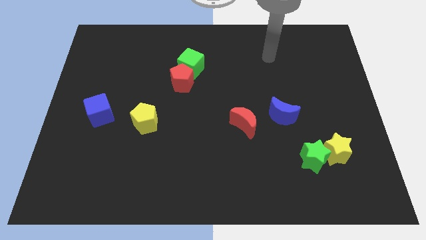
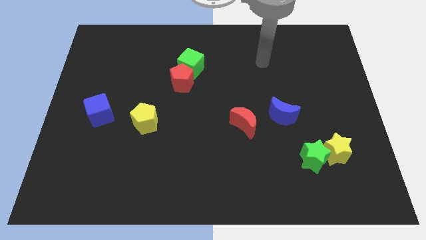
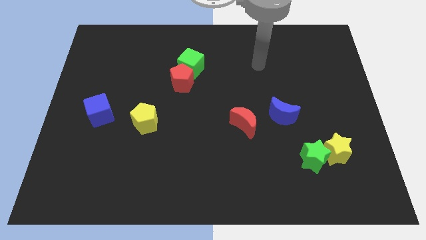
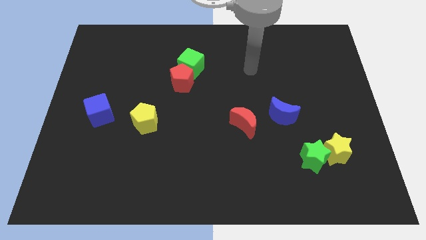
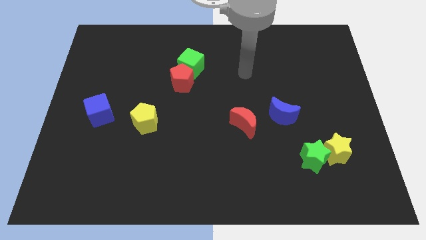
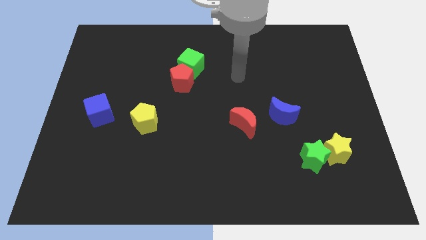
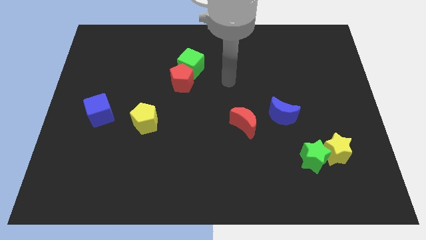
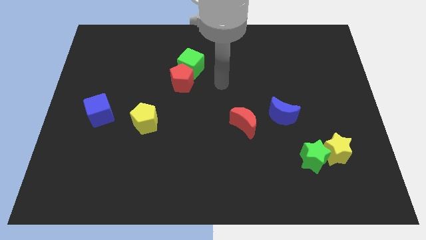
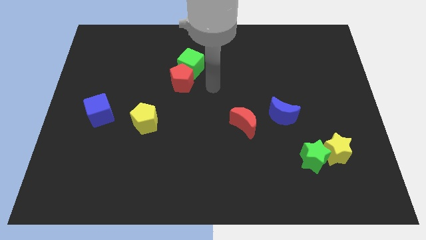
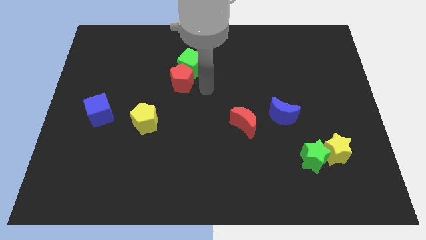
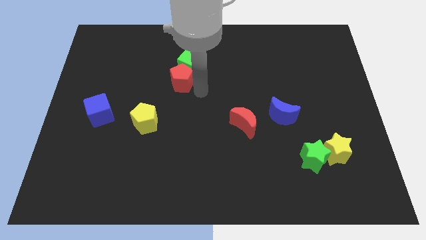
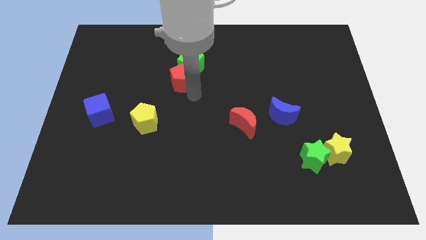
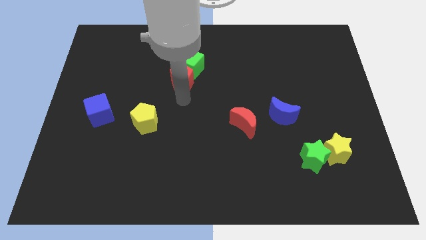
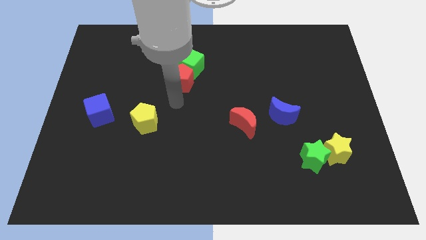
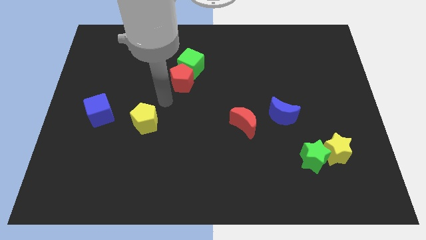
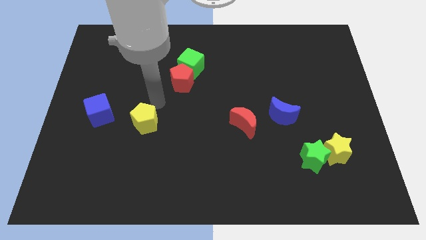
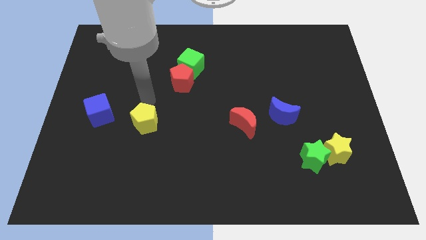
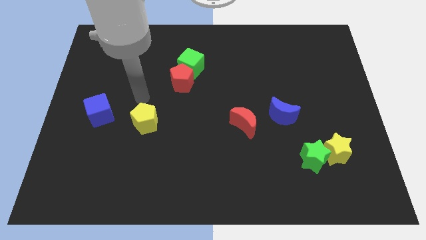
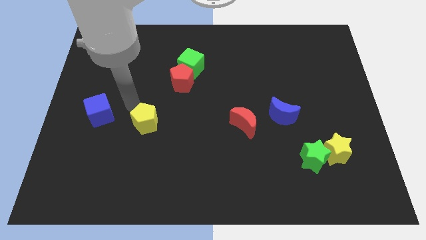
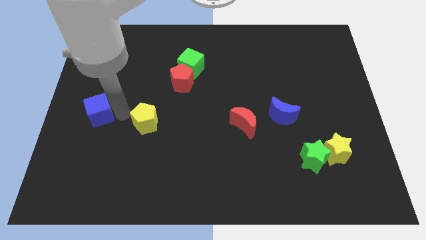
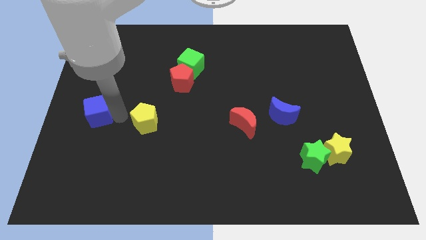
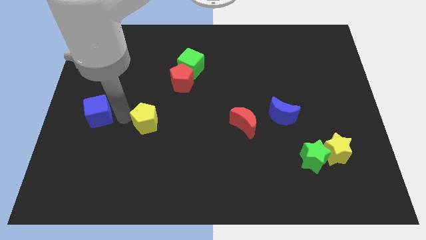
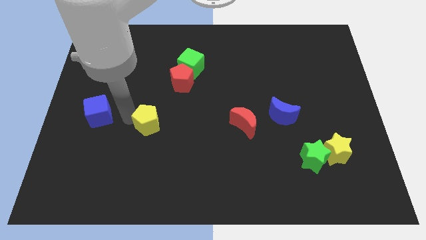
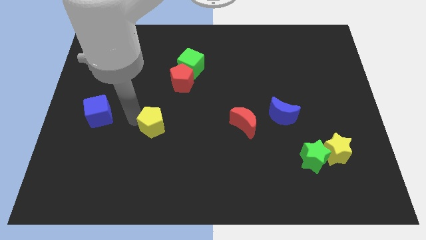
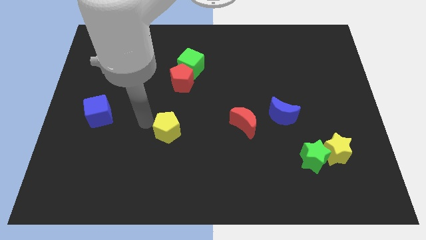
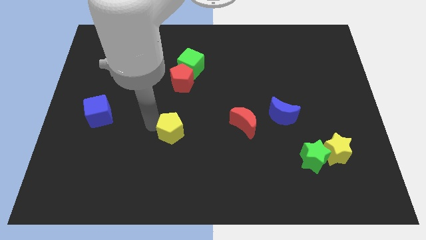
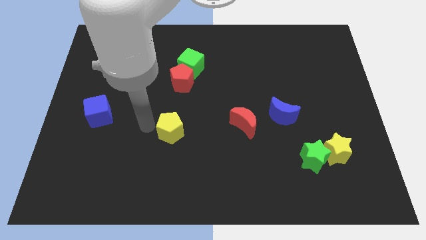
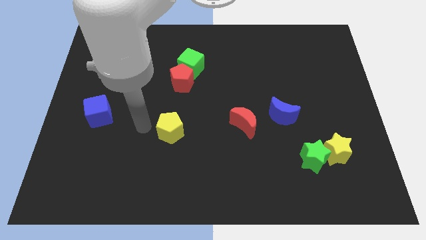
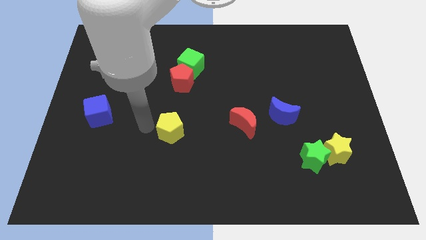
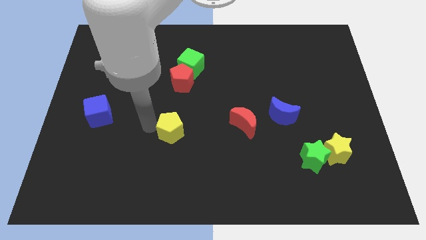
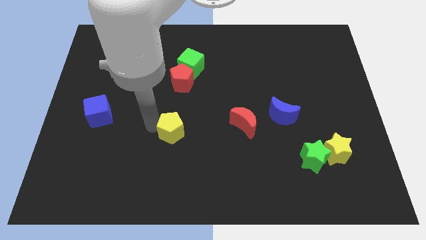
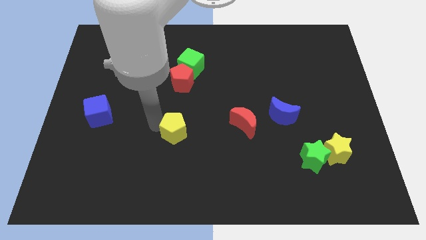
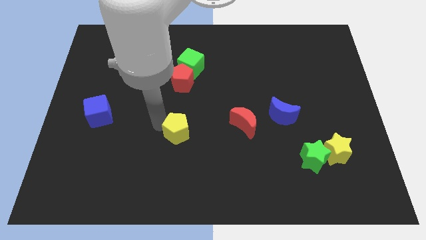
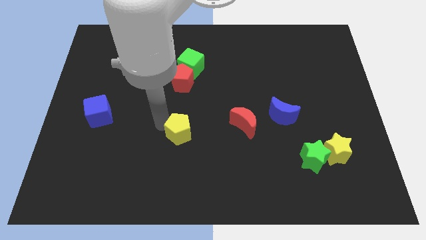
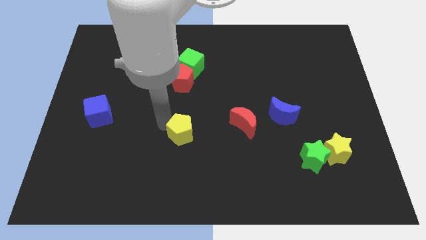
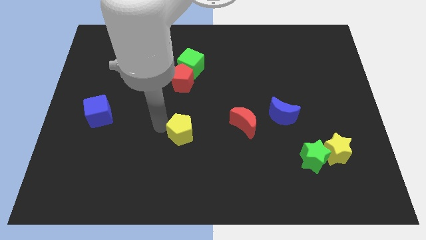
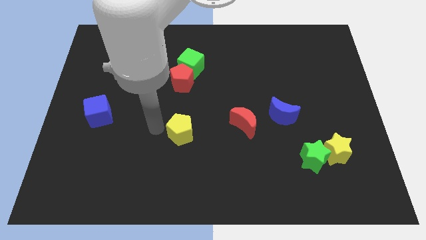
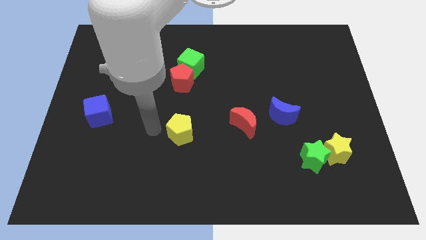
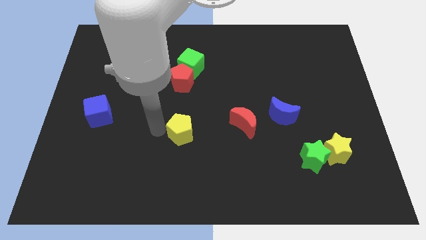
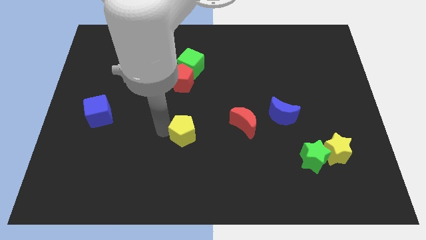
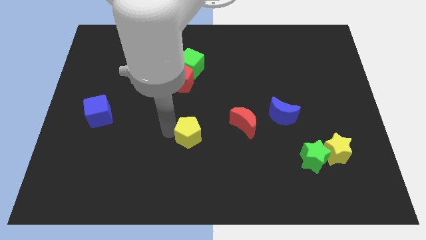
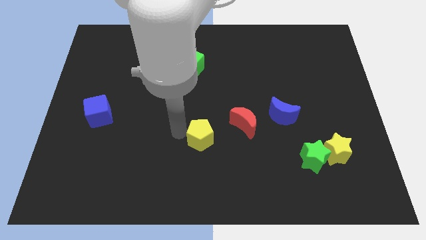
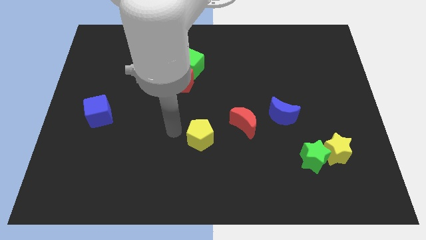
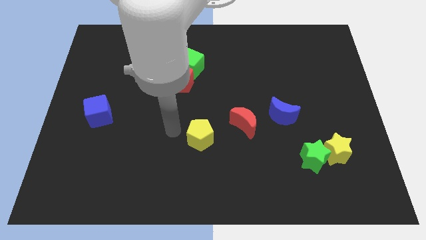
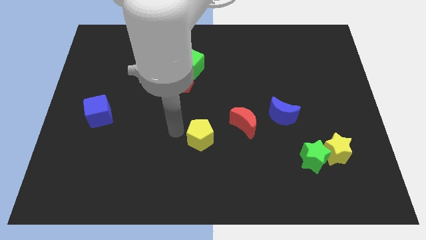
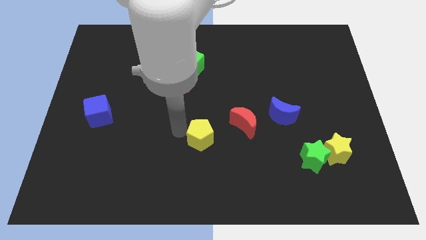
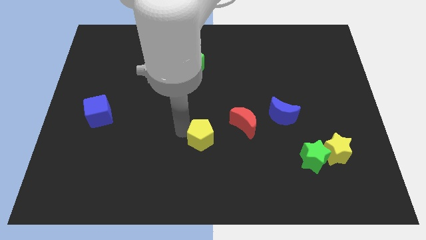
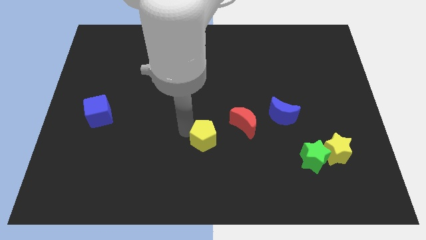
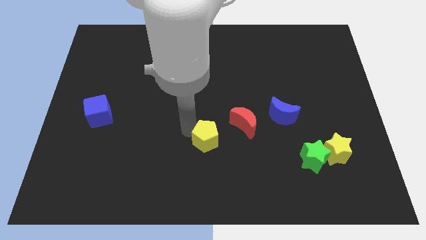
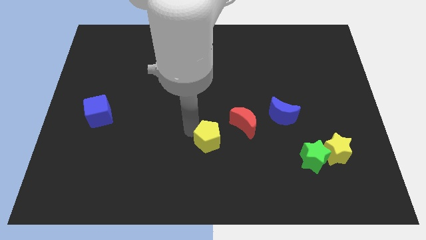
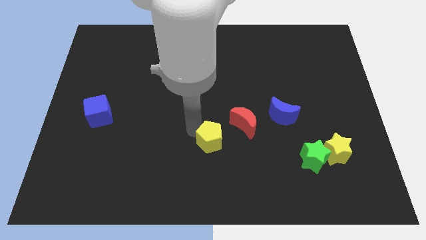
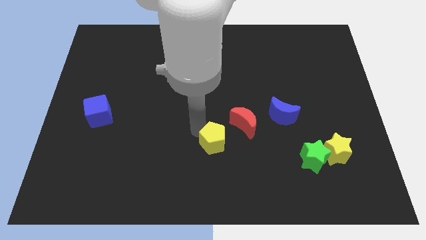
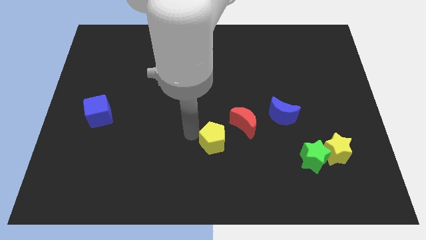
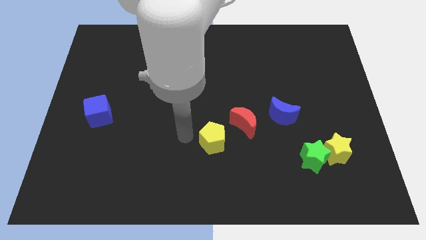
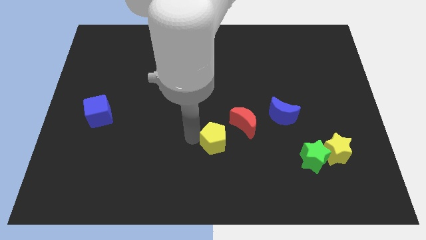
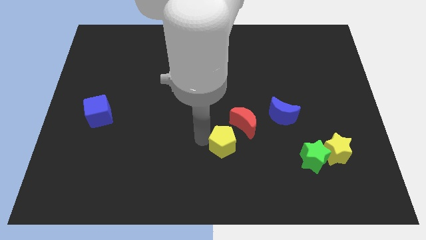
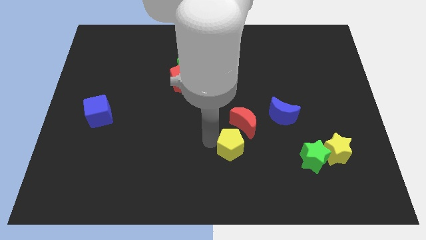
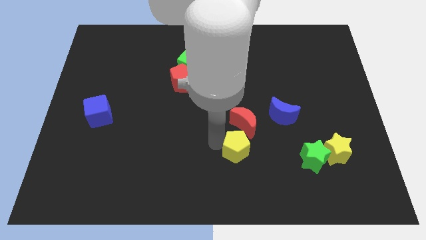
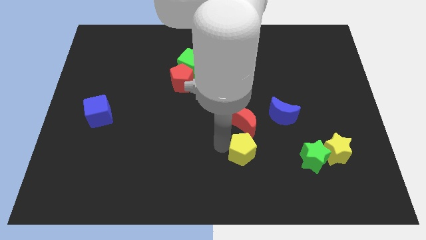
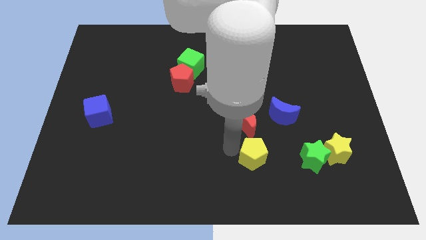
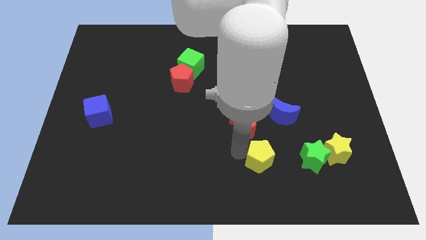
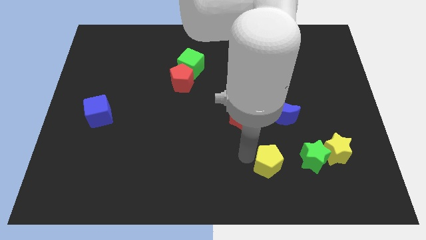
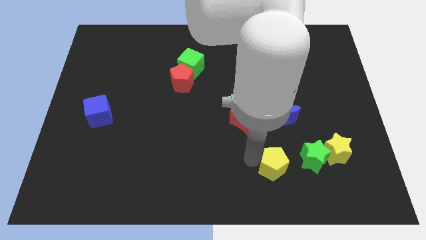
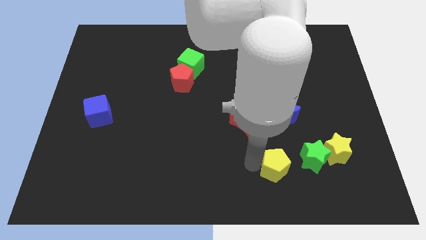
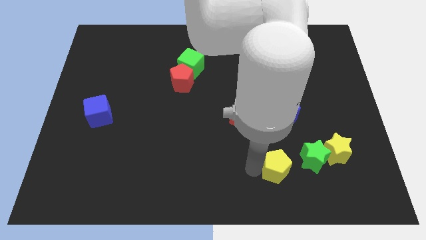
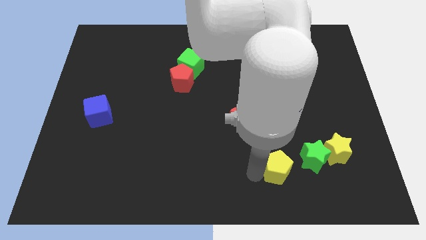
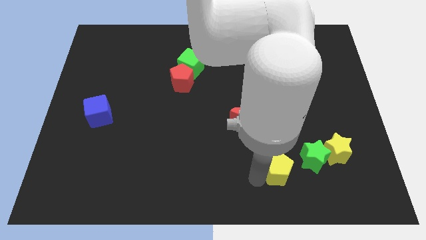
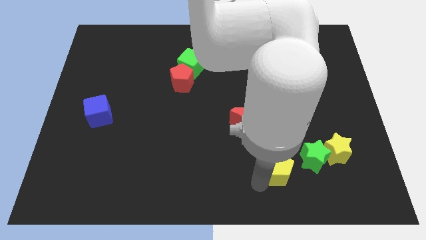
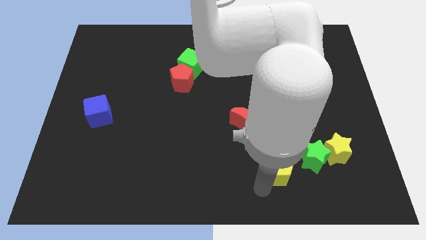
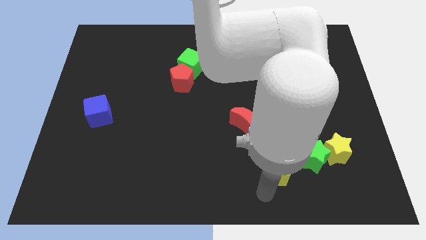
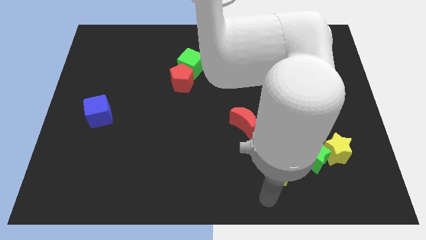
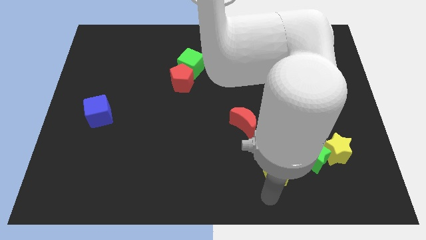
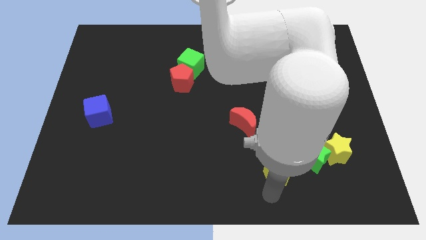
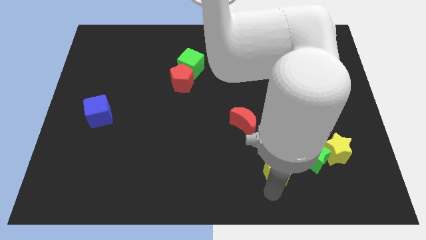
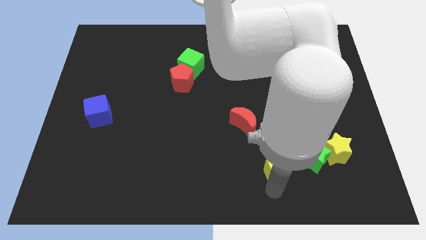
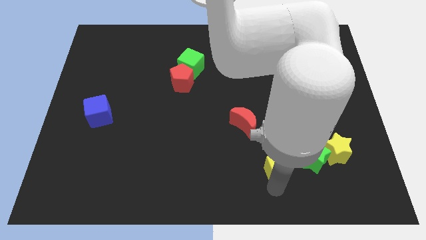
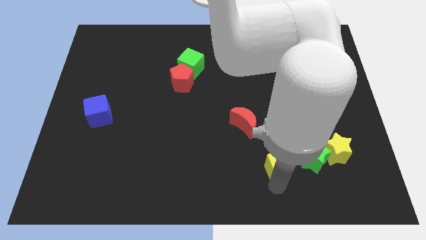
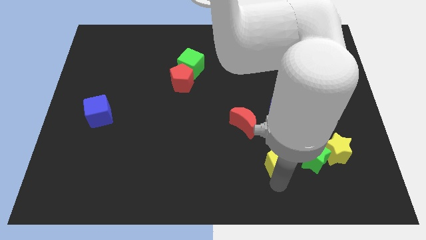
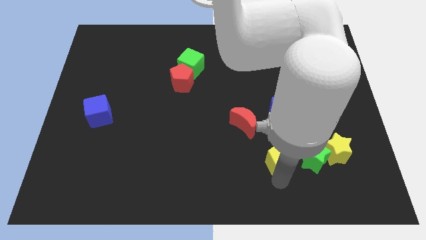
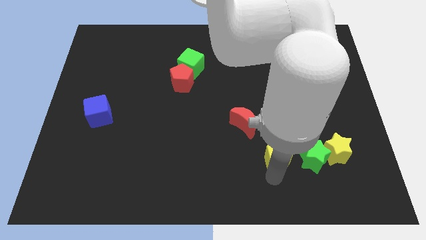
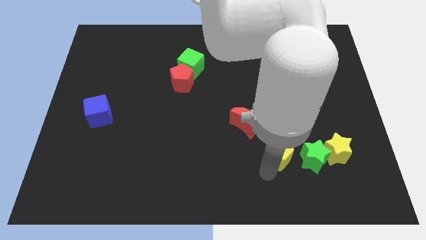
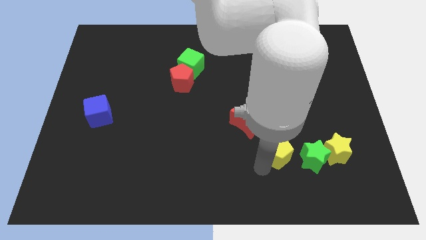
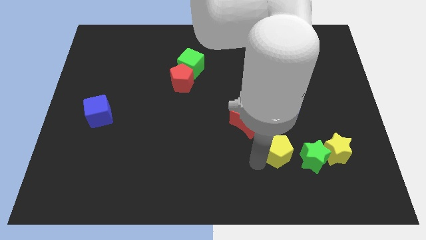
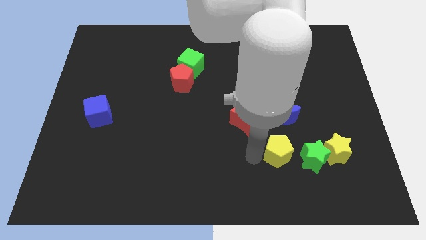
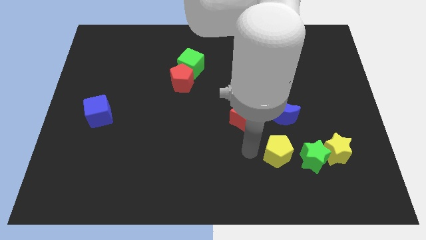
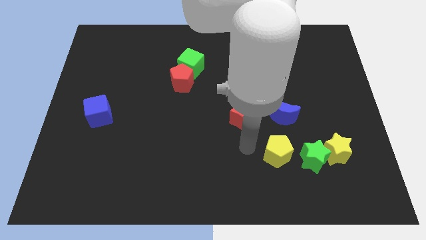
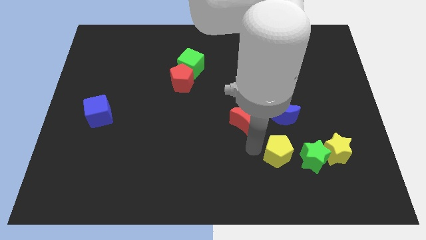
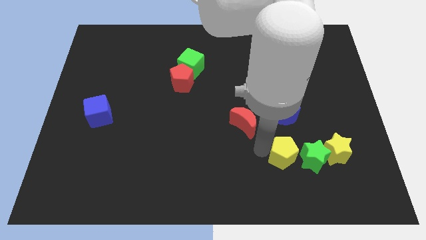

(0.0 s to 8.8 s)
slide the yellow pentagon close to the green star
